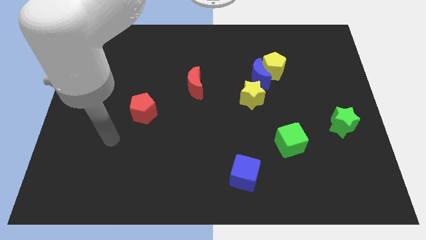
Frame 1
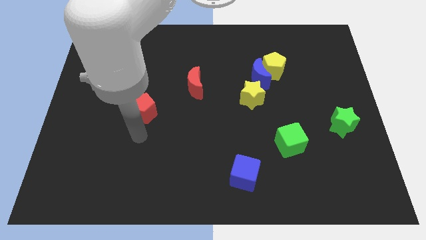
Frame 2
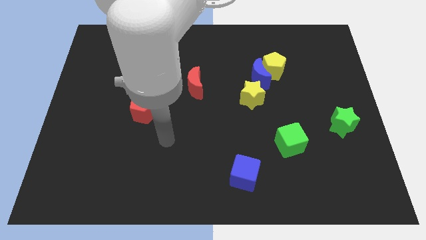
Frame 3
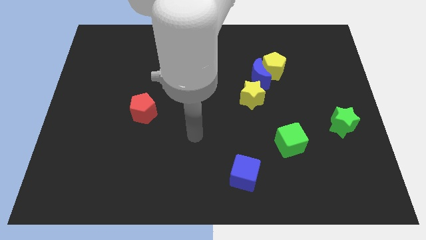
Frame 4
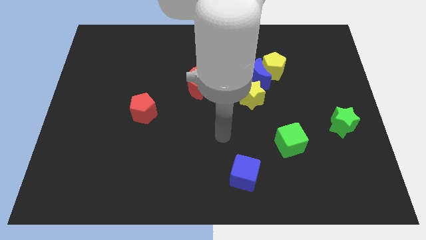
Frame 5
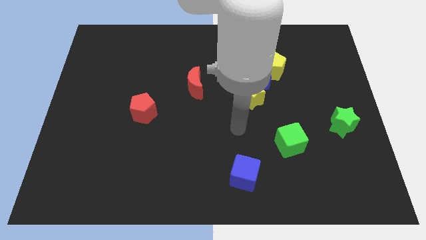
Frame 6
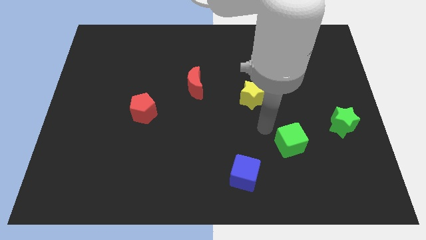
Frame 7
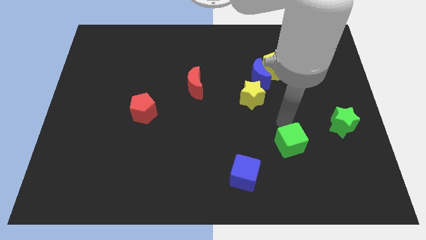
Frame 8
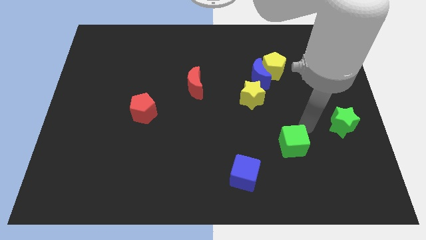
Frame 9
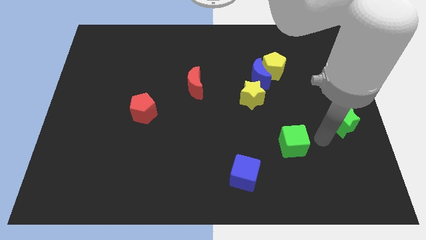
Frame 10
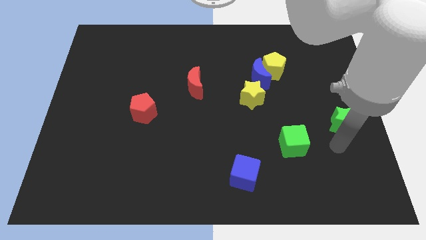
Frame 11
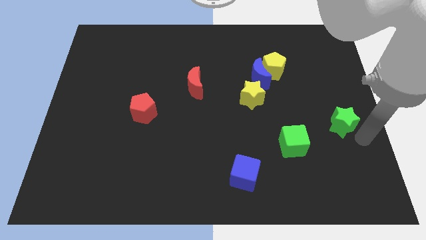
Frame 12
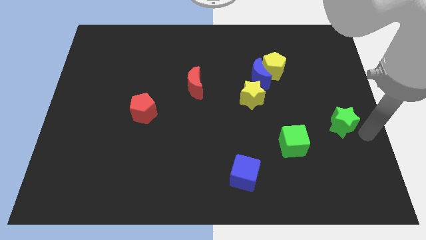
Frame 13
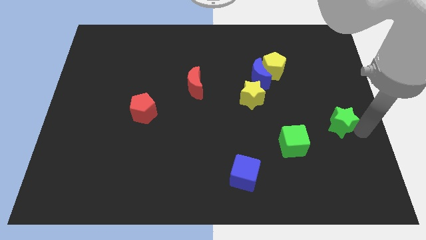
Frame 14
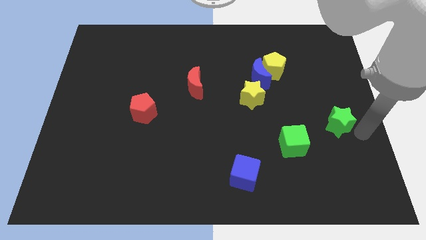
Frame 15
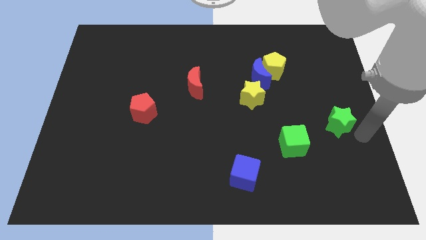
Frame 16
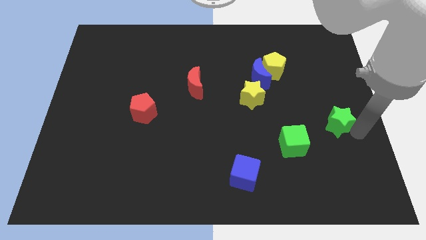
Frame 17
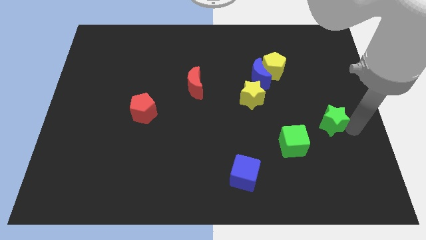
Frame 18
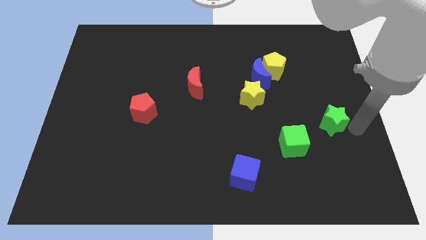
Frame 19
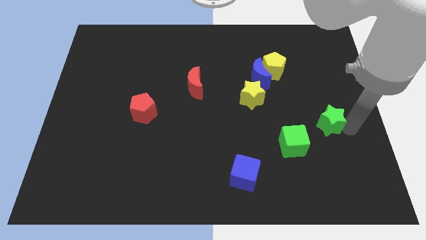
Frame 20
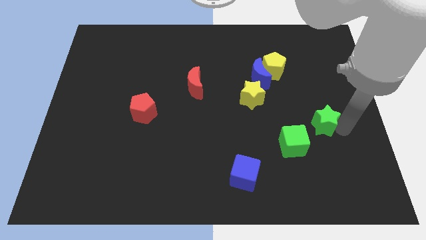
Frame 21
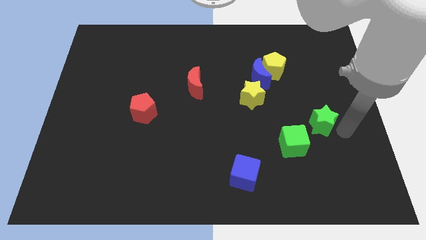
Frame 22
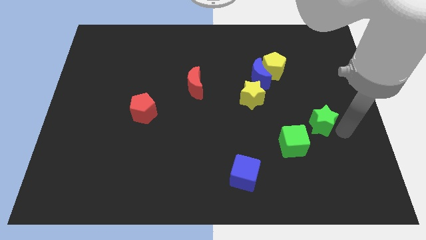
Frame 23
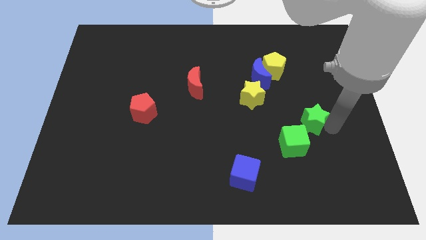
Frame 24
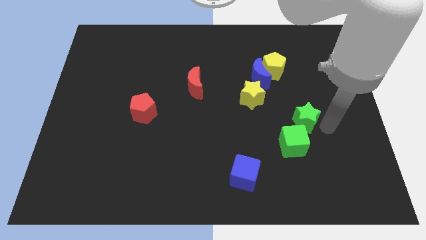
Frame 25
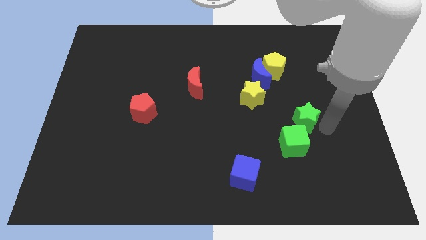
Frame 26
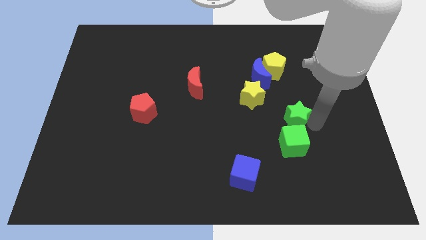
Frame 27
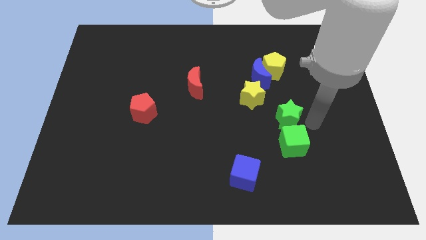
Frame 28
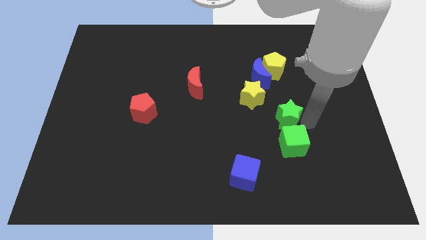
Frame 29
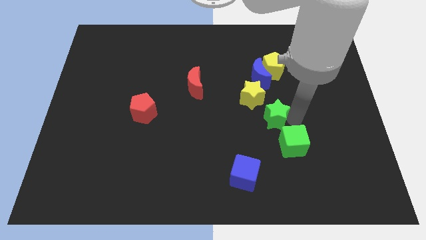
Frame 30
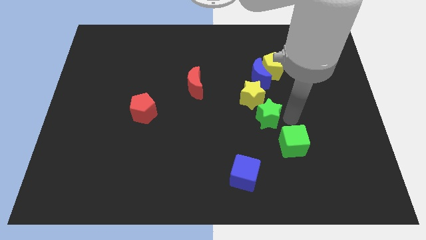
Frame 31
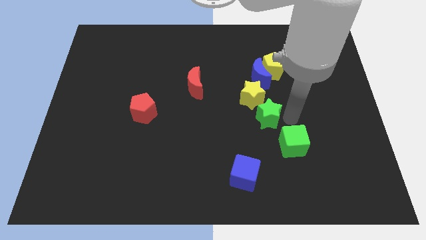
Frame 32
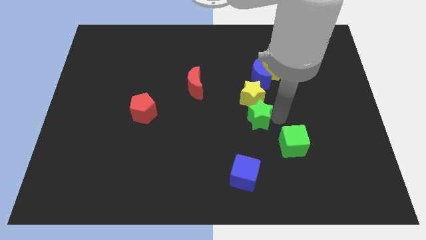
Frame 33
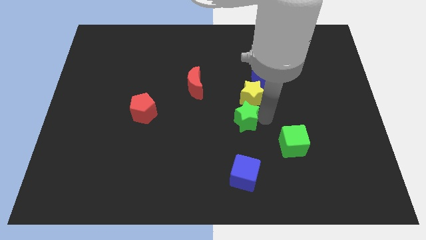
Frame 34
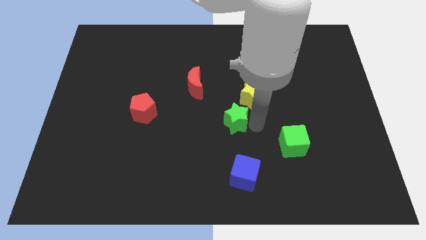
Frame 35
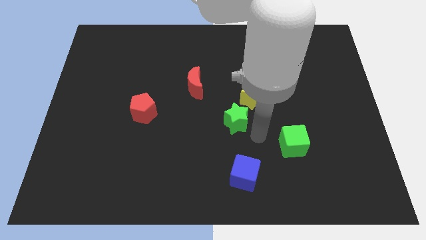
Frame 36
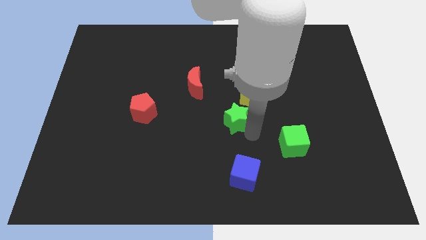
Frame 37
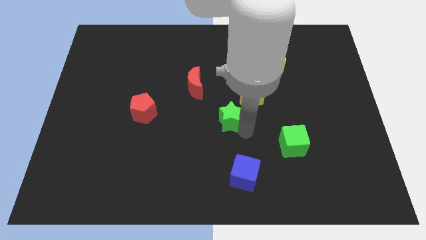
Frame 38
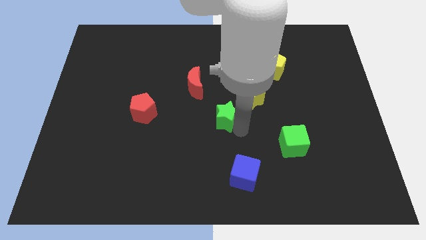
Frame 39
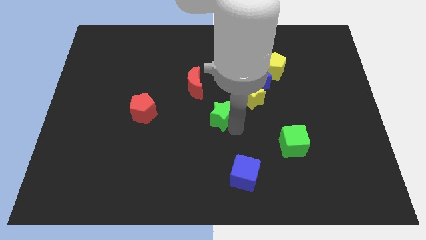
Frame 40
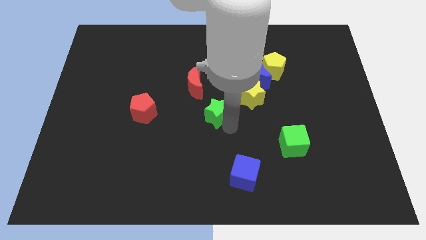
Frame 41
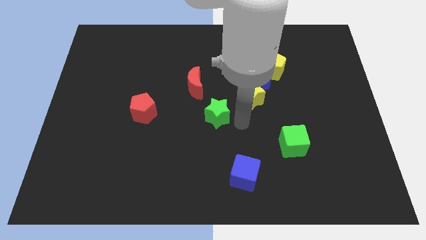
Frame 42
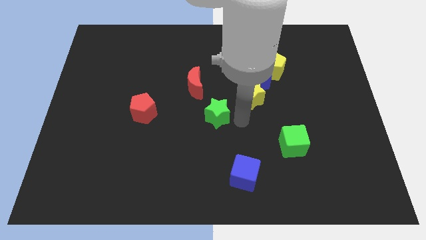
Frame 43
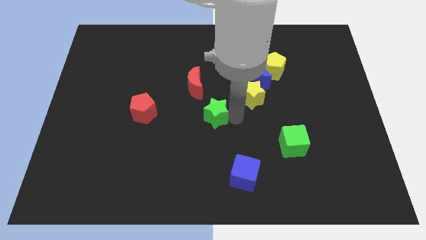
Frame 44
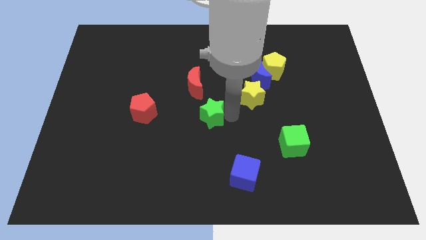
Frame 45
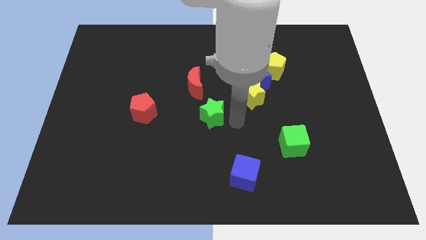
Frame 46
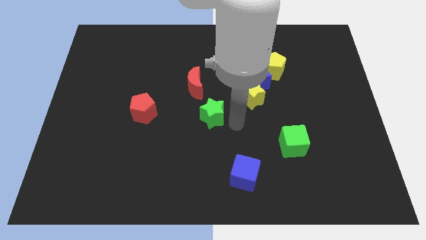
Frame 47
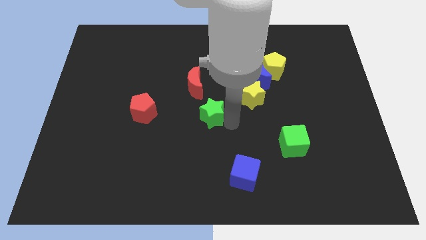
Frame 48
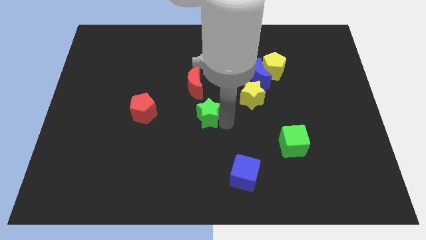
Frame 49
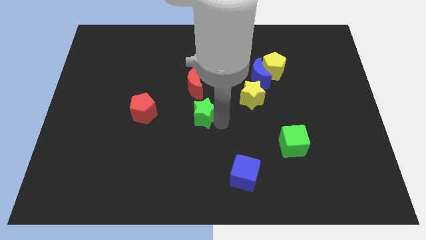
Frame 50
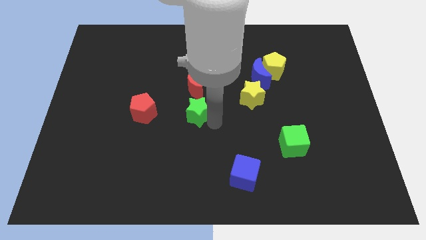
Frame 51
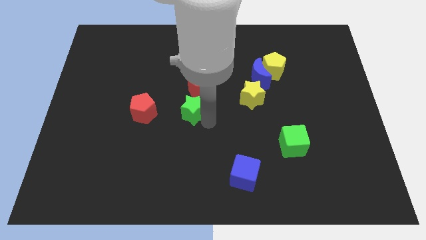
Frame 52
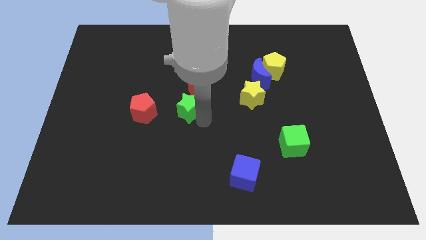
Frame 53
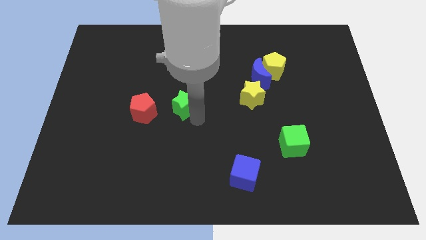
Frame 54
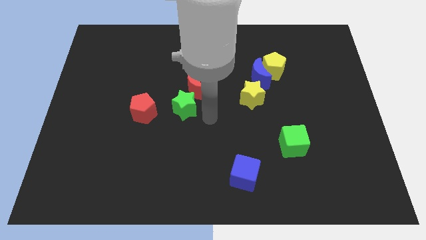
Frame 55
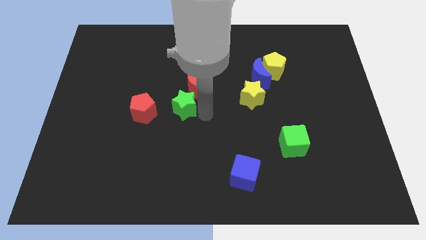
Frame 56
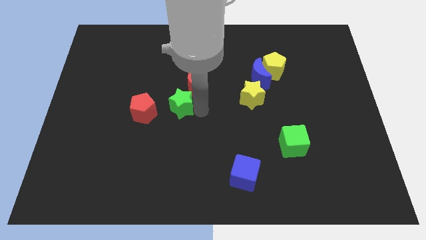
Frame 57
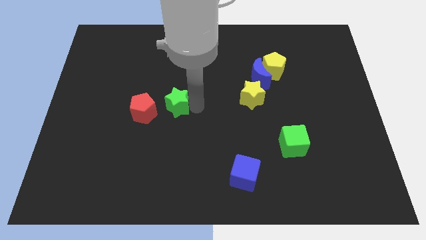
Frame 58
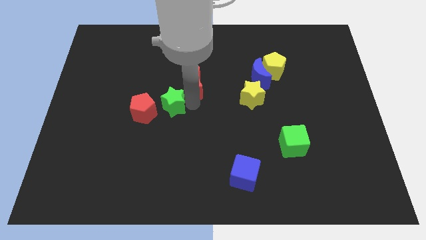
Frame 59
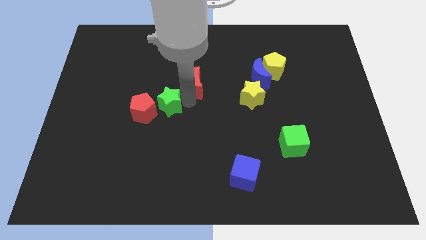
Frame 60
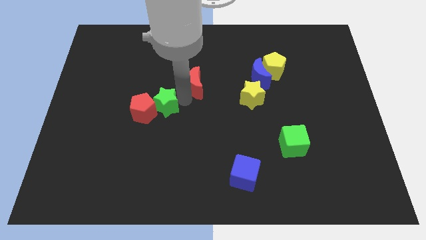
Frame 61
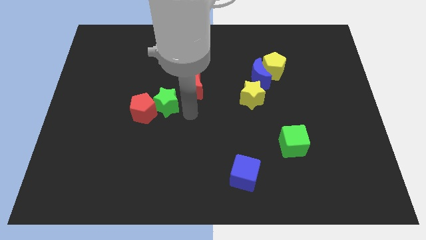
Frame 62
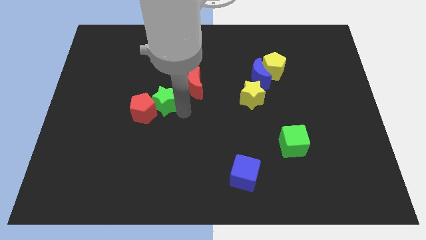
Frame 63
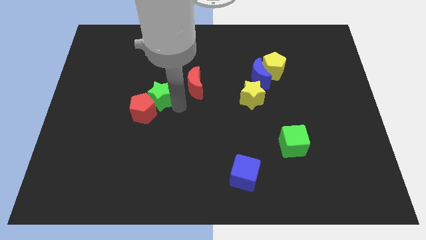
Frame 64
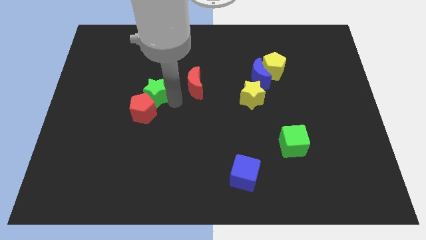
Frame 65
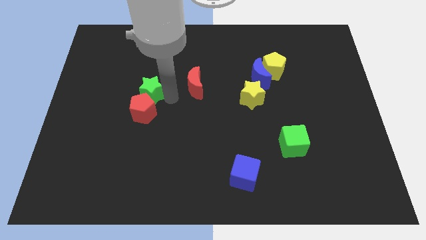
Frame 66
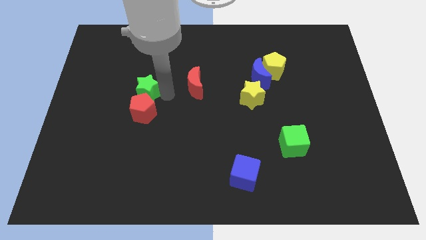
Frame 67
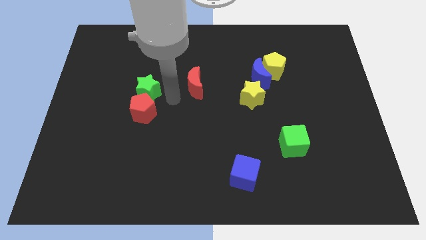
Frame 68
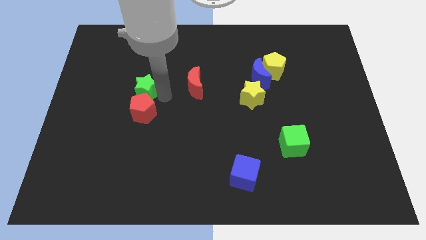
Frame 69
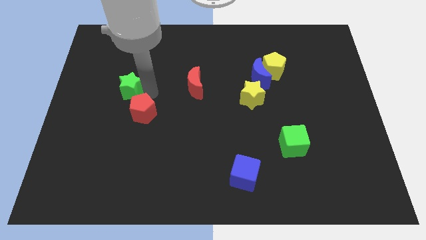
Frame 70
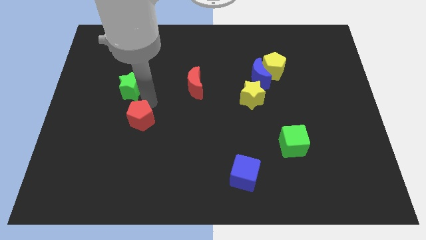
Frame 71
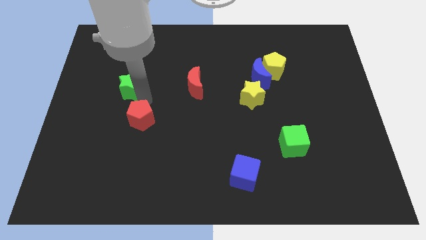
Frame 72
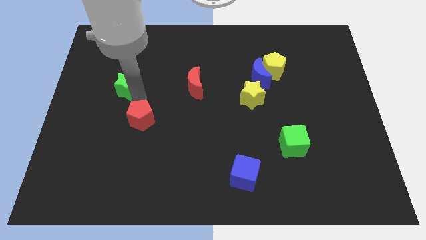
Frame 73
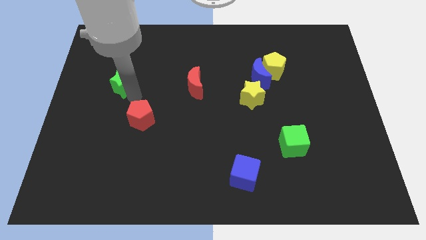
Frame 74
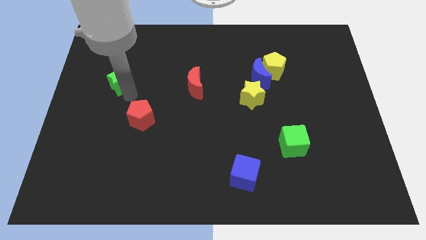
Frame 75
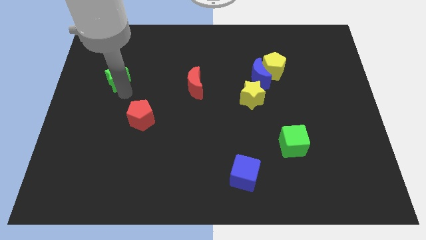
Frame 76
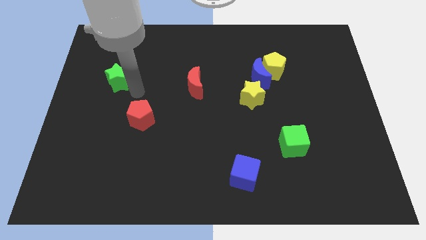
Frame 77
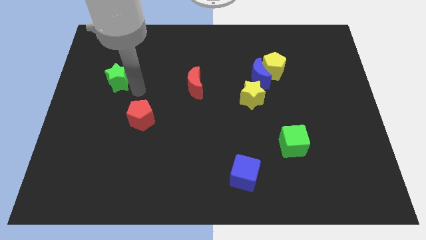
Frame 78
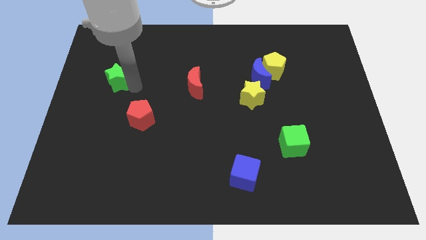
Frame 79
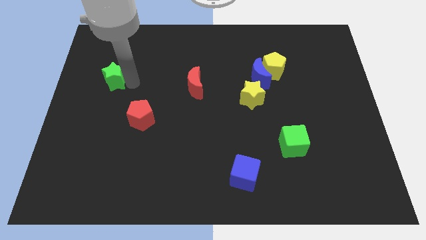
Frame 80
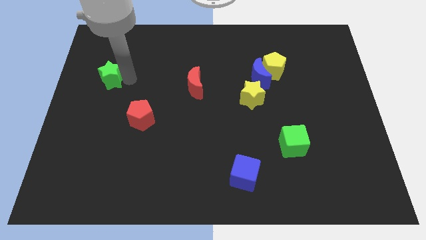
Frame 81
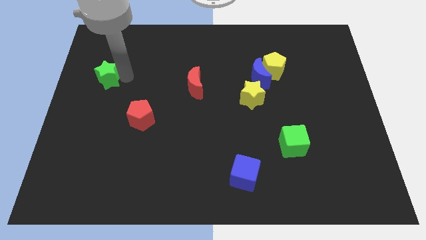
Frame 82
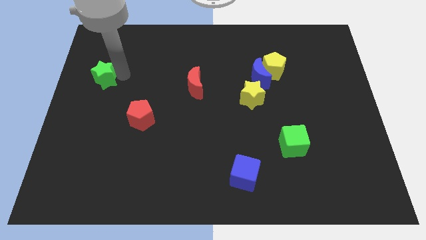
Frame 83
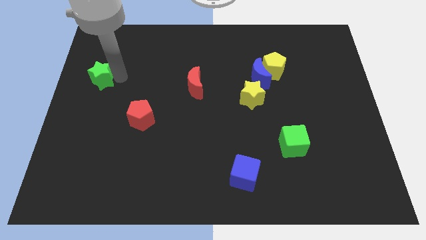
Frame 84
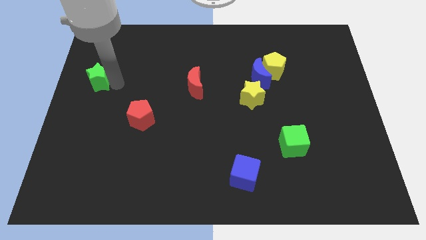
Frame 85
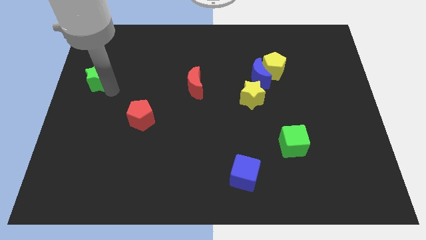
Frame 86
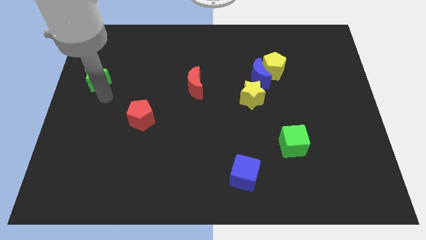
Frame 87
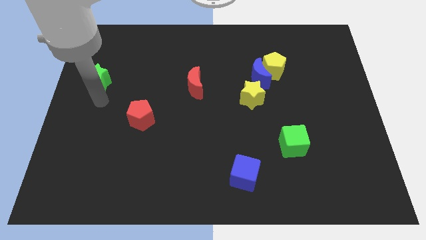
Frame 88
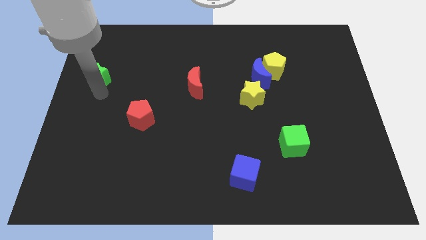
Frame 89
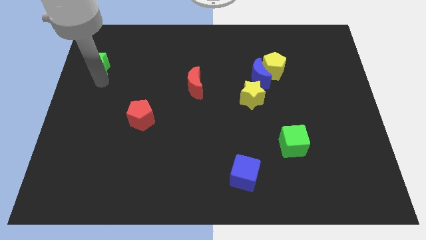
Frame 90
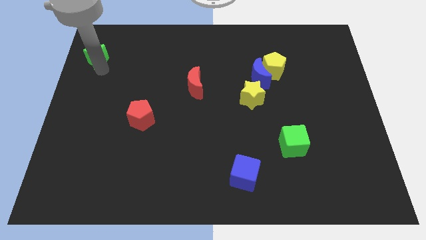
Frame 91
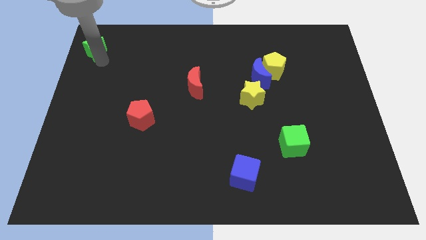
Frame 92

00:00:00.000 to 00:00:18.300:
push the green star to the top left of the board
